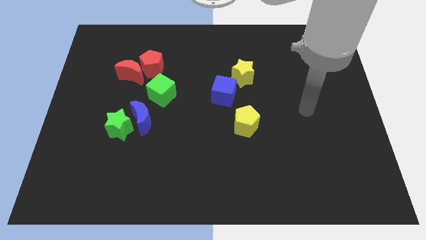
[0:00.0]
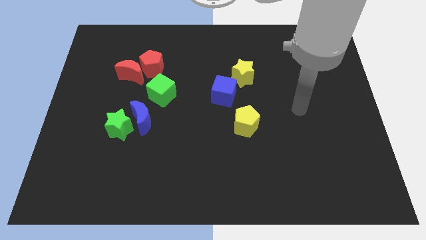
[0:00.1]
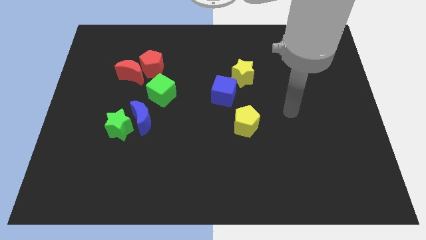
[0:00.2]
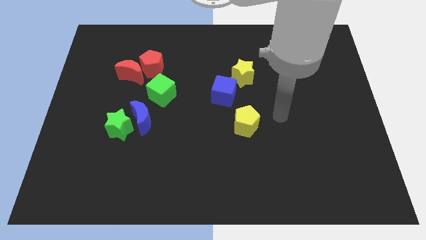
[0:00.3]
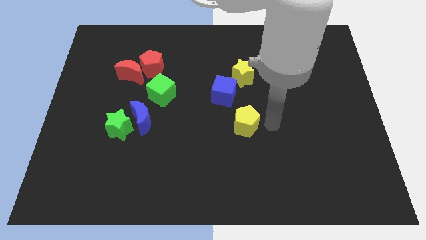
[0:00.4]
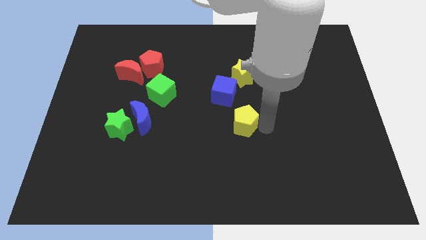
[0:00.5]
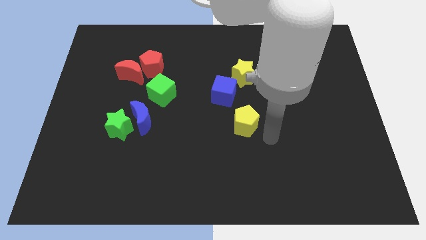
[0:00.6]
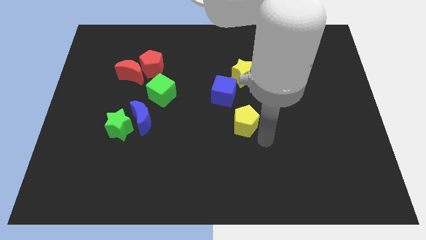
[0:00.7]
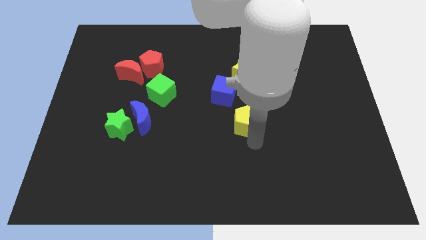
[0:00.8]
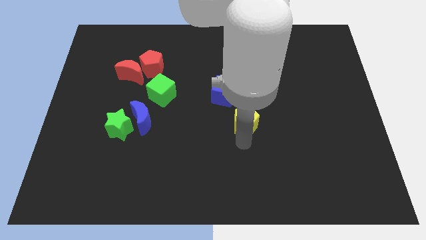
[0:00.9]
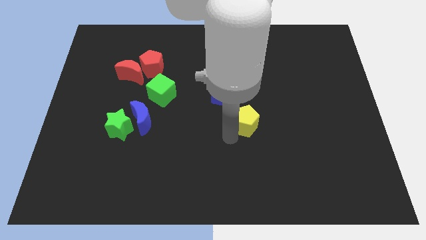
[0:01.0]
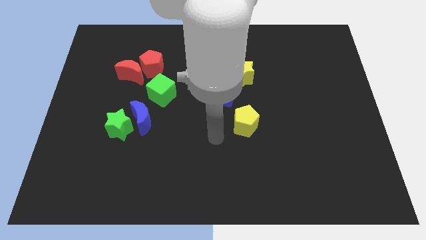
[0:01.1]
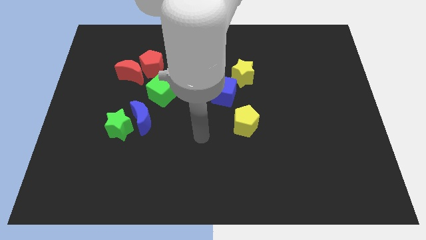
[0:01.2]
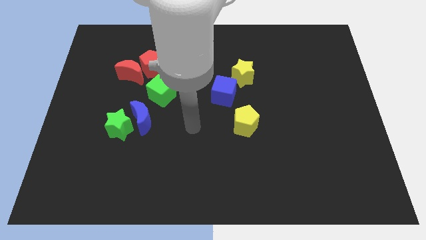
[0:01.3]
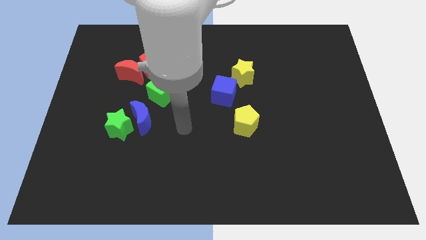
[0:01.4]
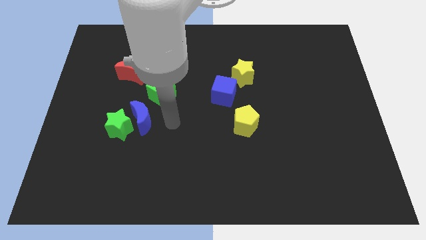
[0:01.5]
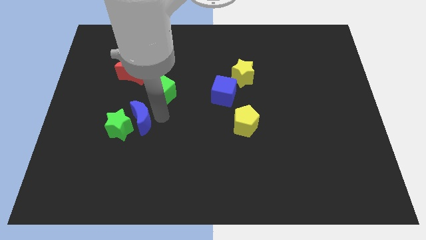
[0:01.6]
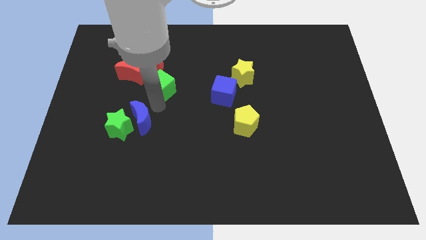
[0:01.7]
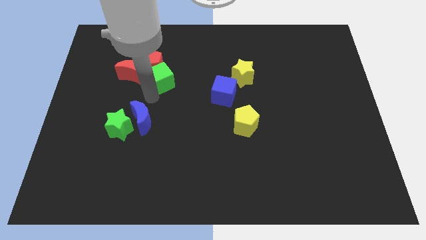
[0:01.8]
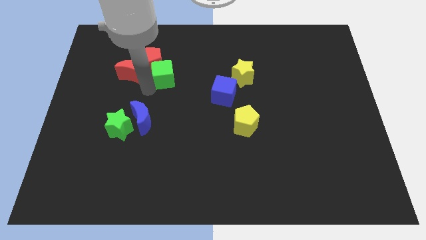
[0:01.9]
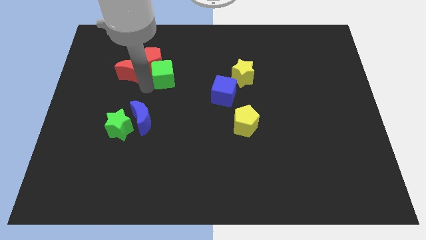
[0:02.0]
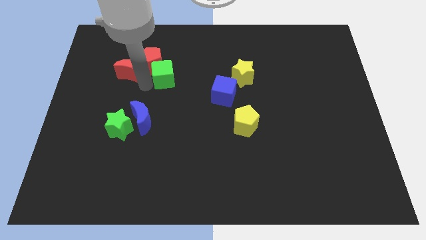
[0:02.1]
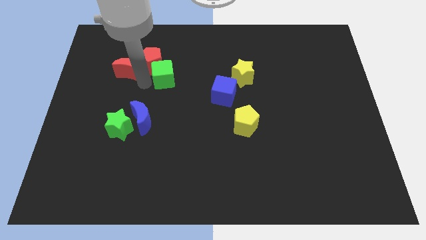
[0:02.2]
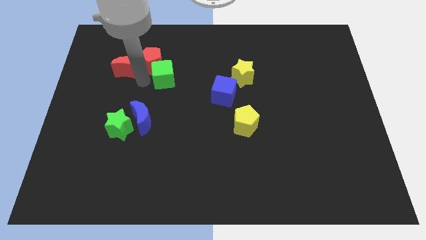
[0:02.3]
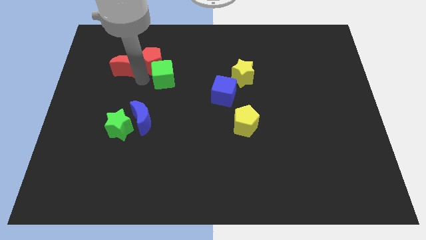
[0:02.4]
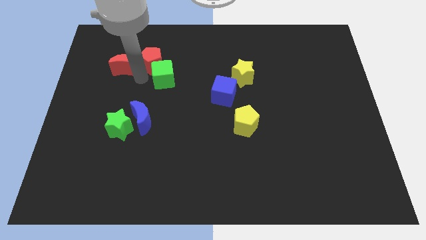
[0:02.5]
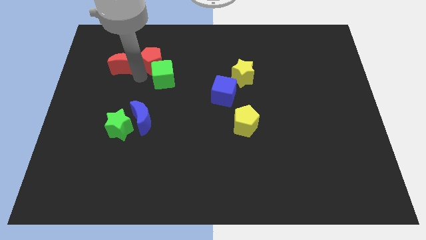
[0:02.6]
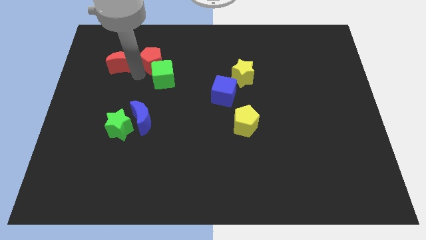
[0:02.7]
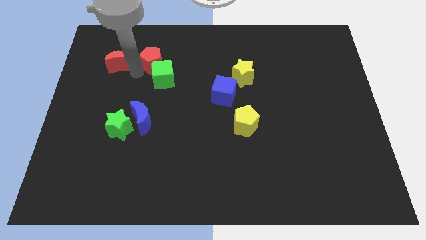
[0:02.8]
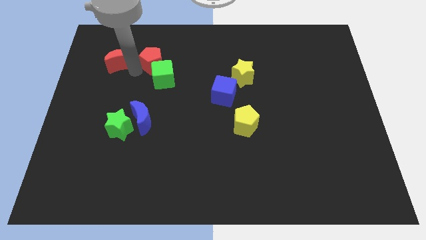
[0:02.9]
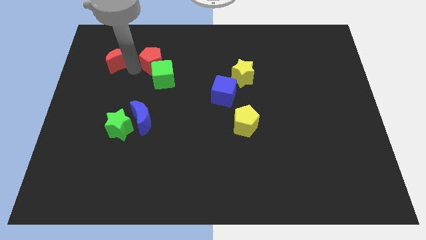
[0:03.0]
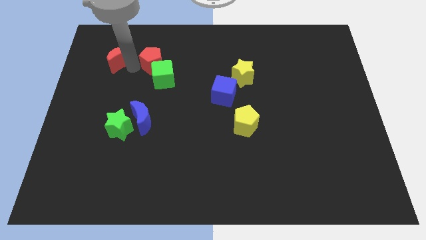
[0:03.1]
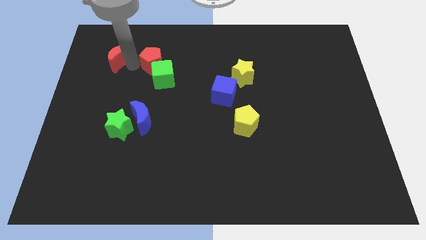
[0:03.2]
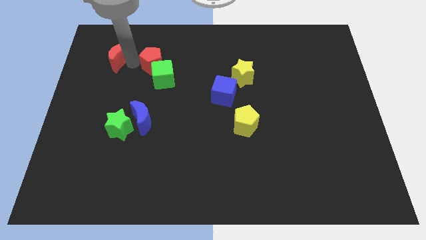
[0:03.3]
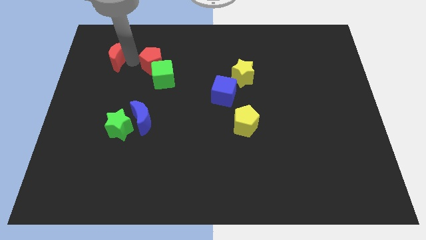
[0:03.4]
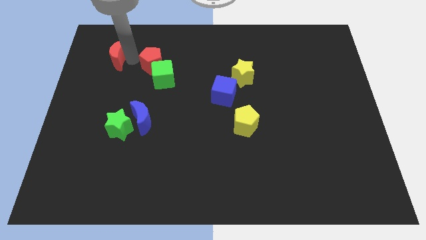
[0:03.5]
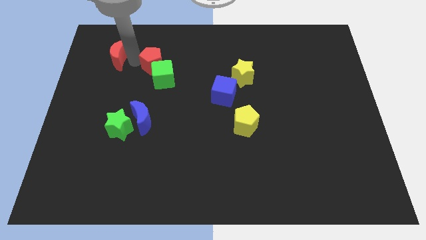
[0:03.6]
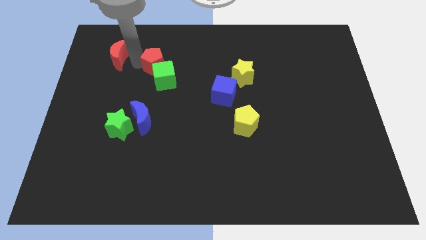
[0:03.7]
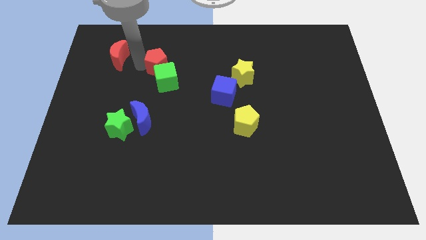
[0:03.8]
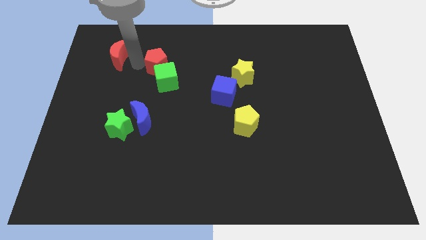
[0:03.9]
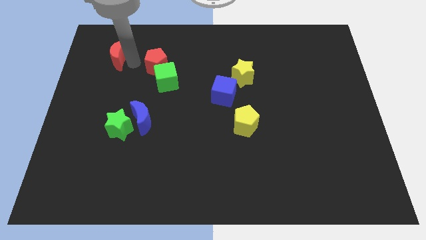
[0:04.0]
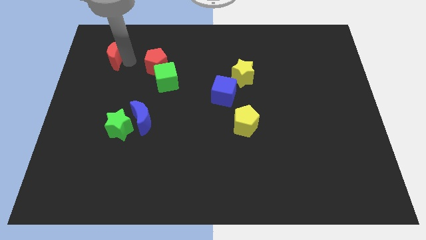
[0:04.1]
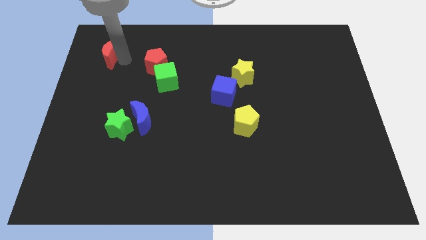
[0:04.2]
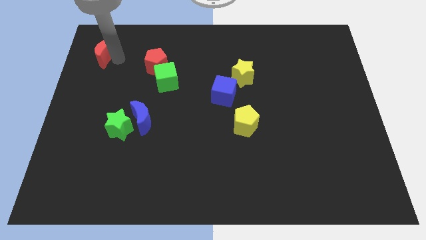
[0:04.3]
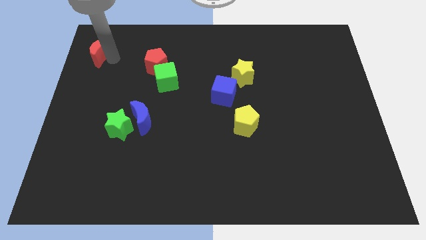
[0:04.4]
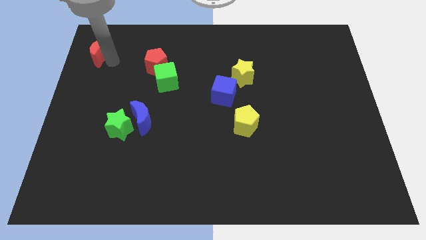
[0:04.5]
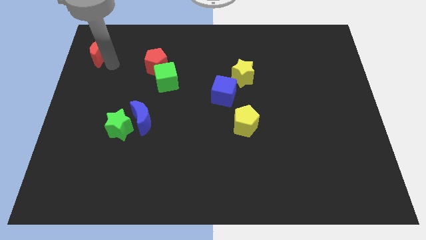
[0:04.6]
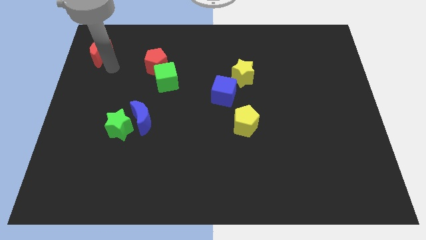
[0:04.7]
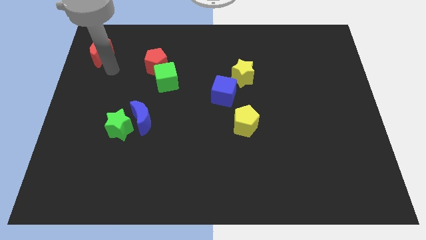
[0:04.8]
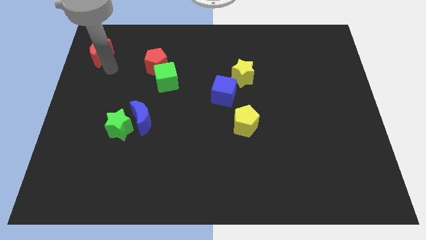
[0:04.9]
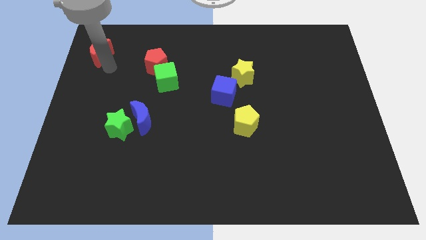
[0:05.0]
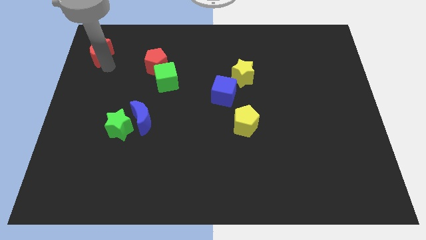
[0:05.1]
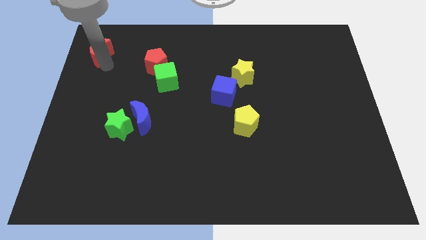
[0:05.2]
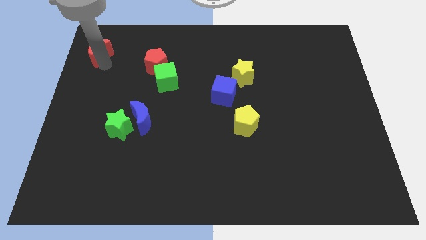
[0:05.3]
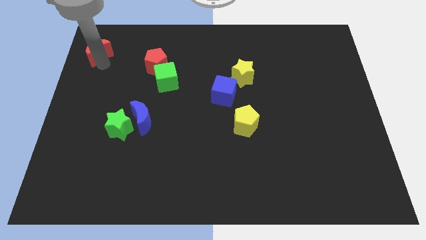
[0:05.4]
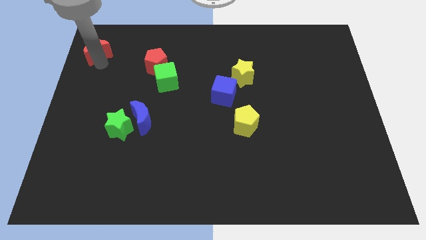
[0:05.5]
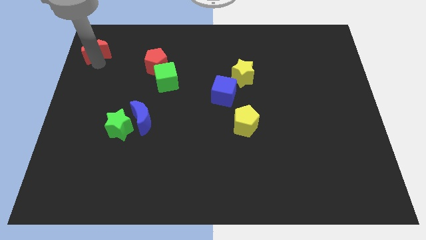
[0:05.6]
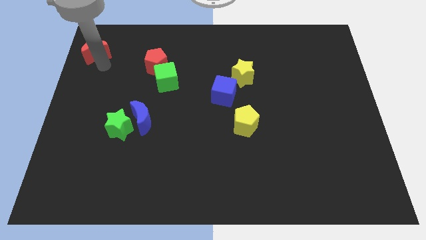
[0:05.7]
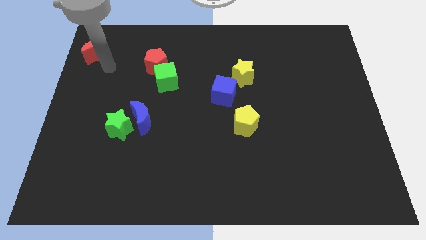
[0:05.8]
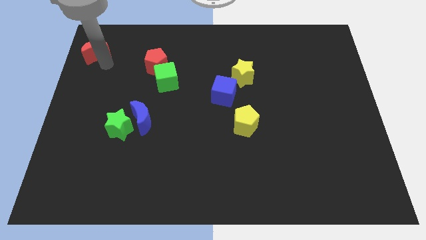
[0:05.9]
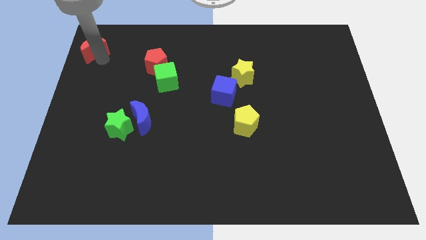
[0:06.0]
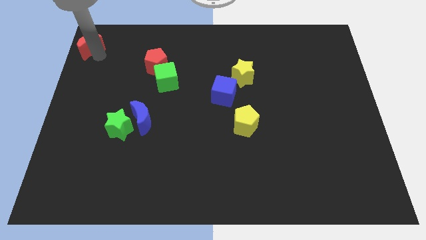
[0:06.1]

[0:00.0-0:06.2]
put the red moon to the top left of the board

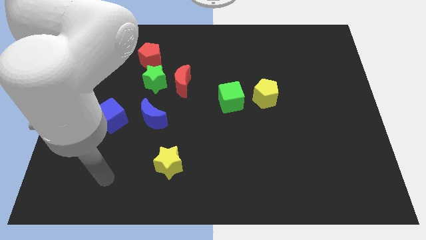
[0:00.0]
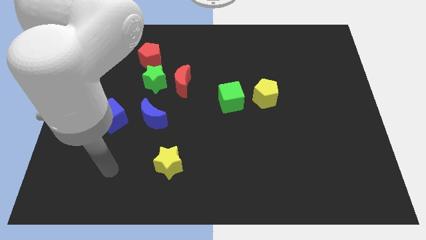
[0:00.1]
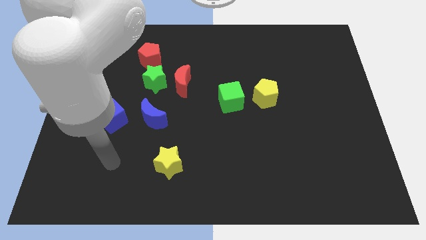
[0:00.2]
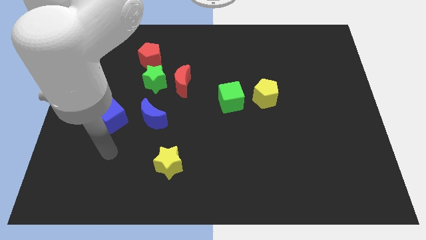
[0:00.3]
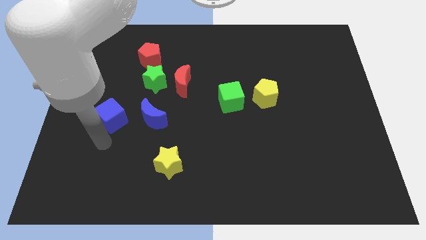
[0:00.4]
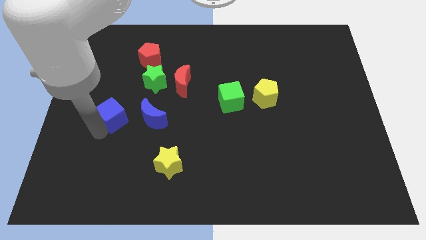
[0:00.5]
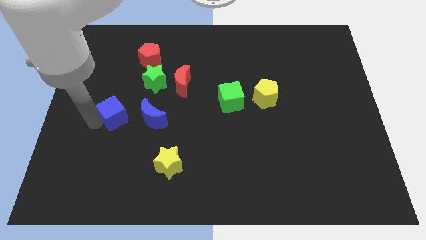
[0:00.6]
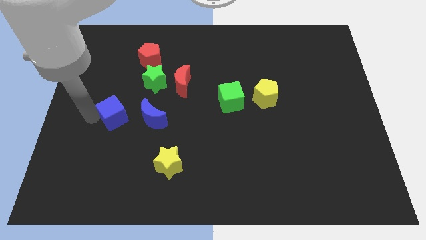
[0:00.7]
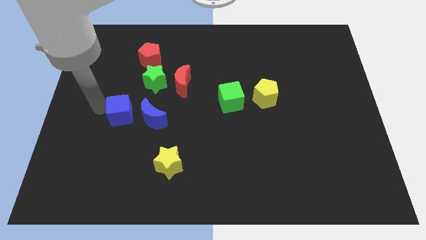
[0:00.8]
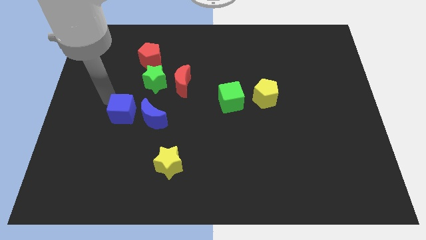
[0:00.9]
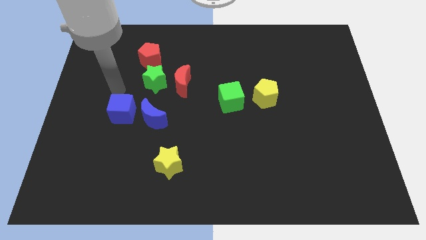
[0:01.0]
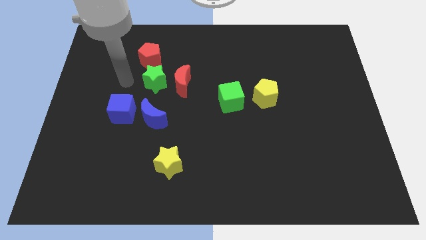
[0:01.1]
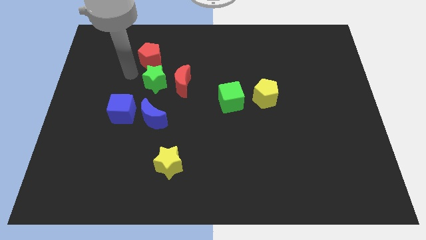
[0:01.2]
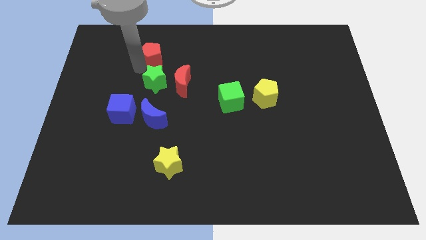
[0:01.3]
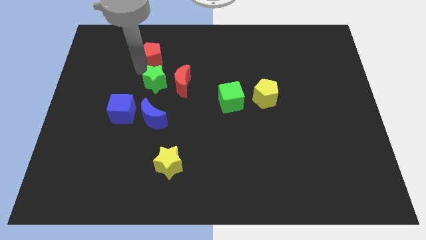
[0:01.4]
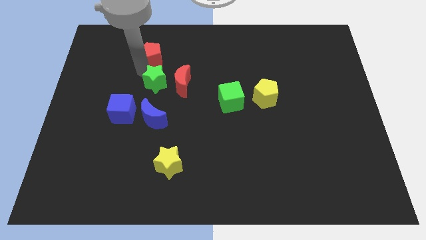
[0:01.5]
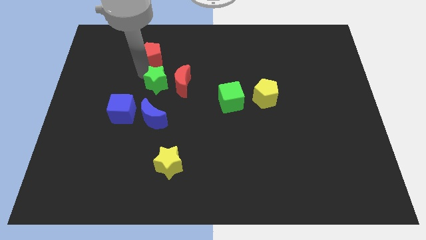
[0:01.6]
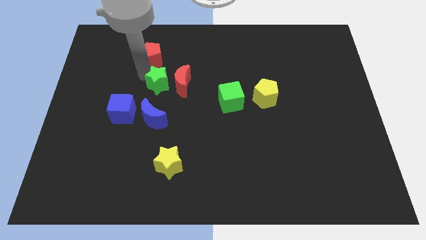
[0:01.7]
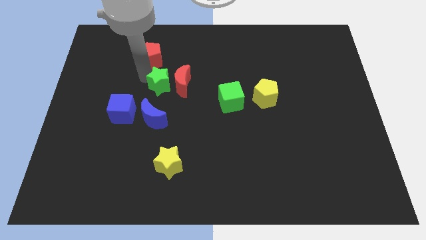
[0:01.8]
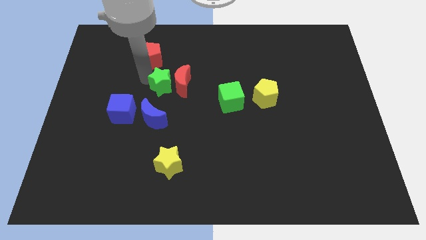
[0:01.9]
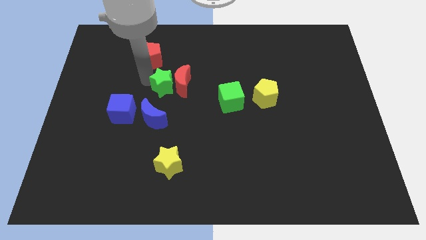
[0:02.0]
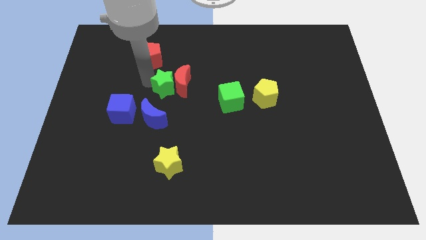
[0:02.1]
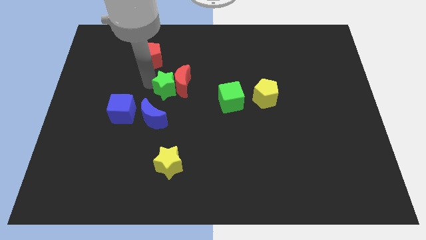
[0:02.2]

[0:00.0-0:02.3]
put the green star to the center of the board
